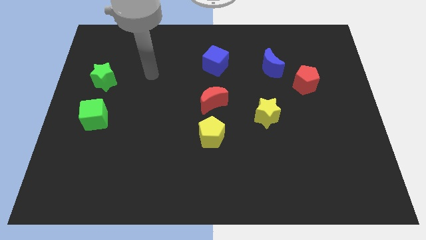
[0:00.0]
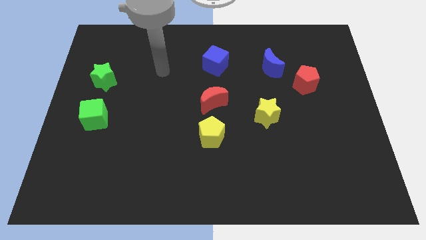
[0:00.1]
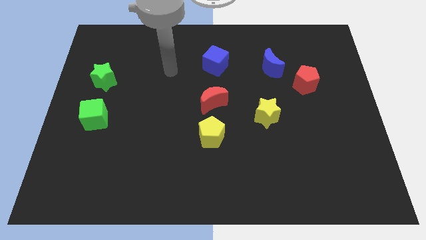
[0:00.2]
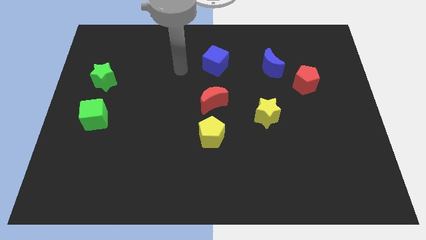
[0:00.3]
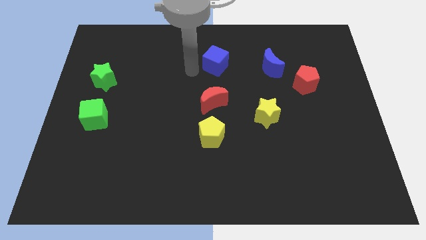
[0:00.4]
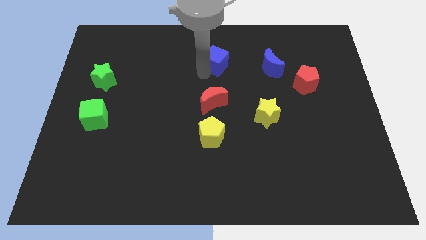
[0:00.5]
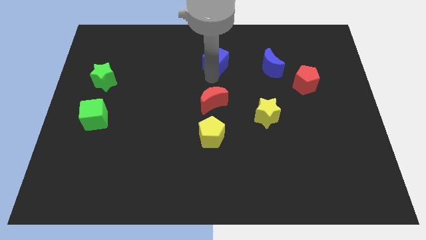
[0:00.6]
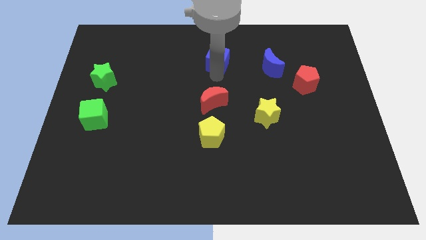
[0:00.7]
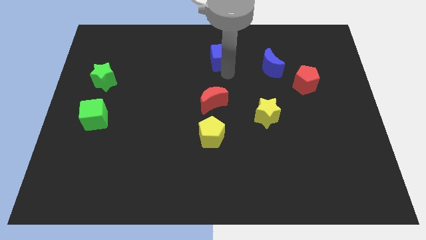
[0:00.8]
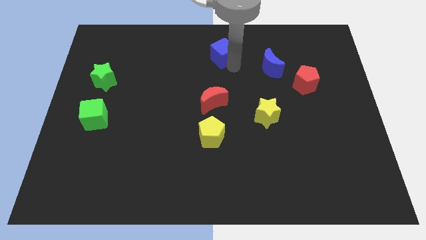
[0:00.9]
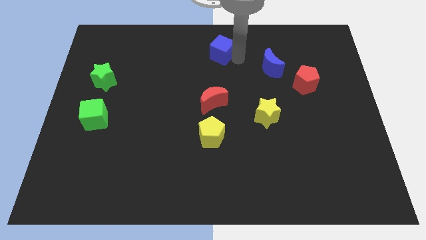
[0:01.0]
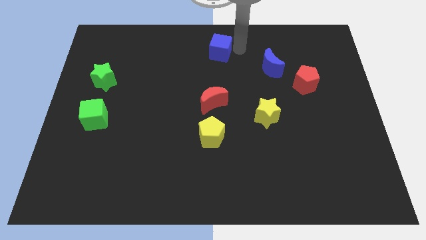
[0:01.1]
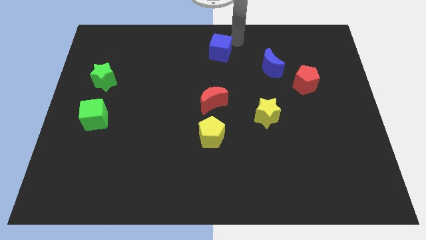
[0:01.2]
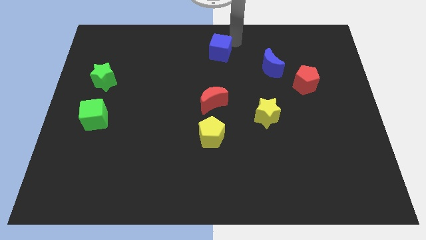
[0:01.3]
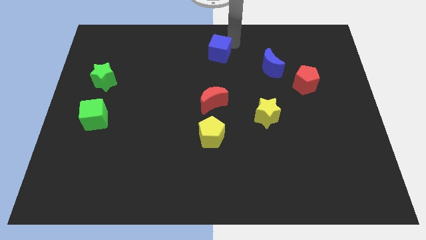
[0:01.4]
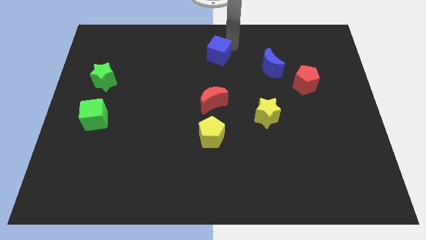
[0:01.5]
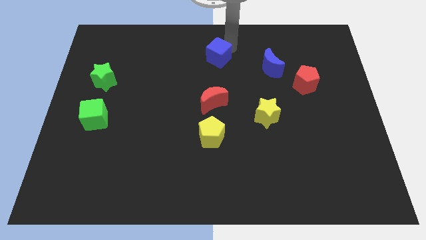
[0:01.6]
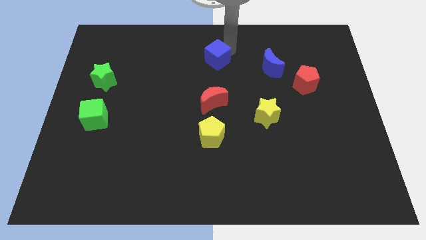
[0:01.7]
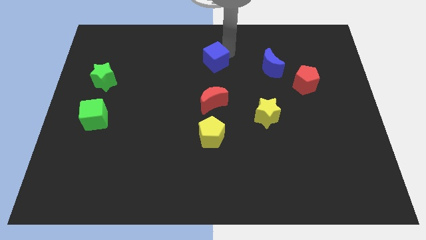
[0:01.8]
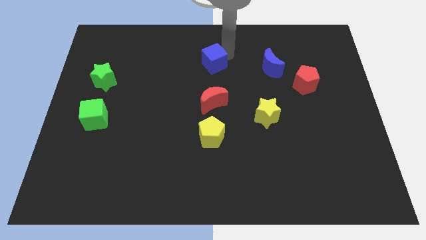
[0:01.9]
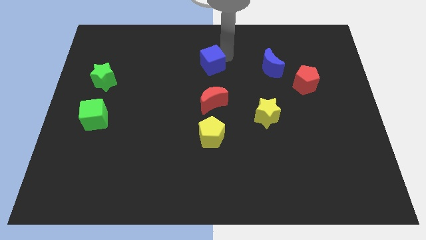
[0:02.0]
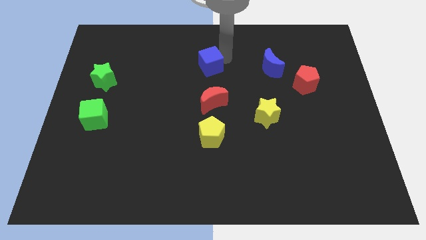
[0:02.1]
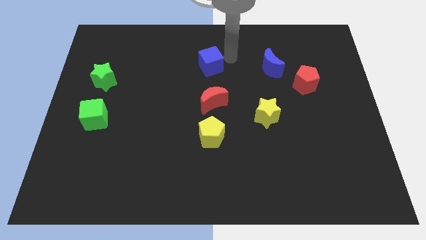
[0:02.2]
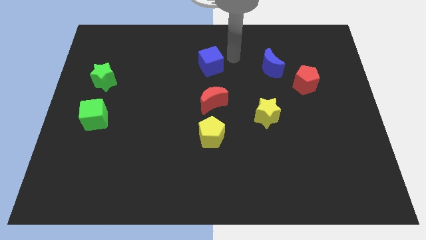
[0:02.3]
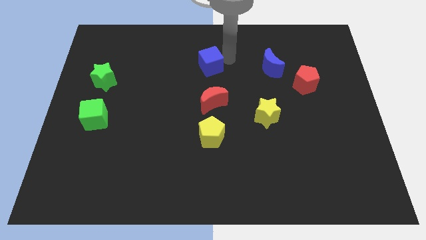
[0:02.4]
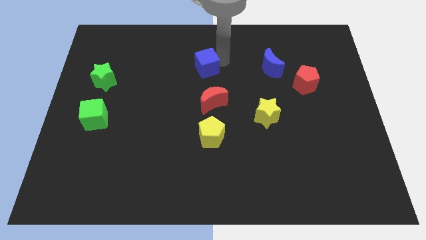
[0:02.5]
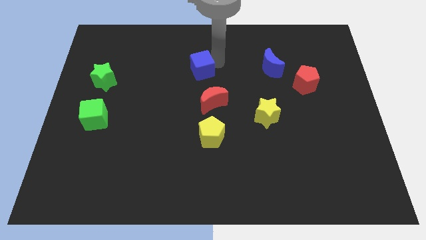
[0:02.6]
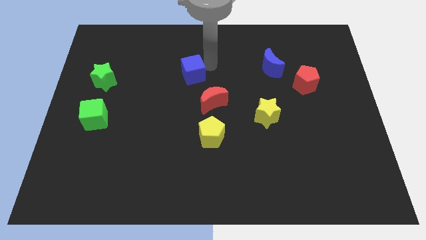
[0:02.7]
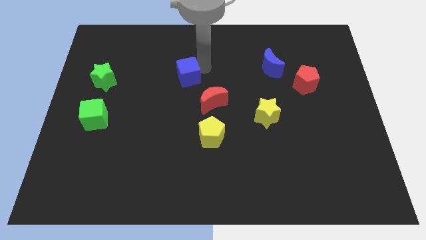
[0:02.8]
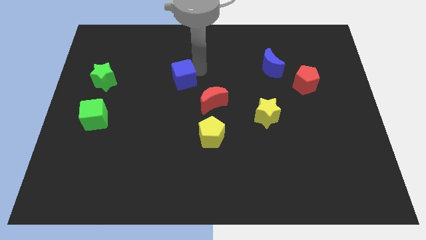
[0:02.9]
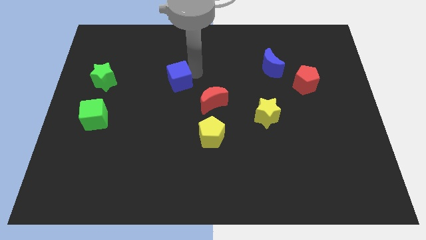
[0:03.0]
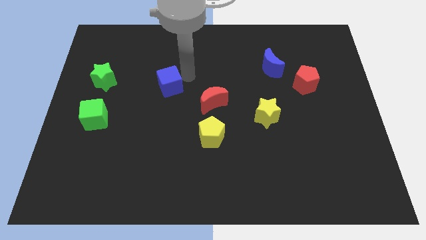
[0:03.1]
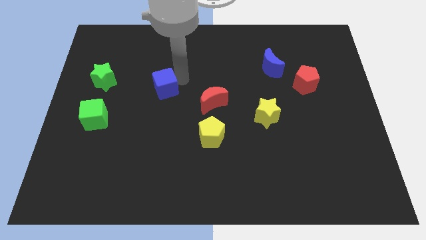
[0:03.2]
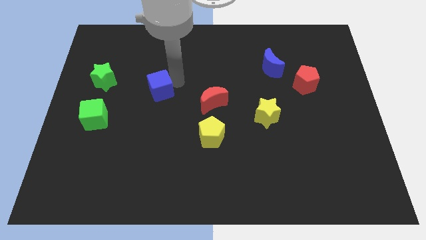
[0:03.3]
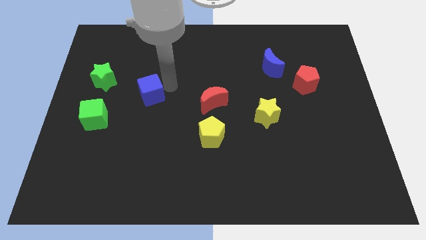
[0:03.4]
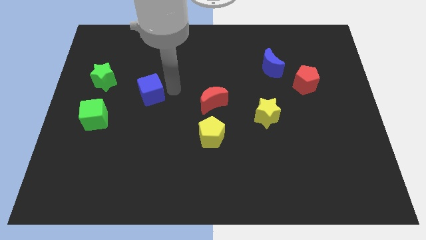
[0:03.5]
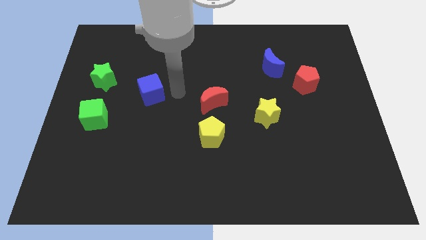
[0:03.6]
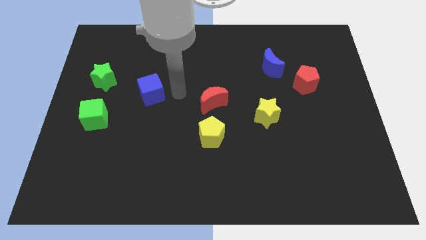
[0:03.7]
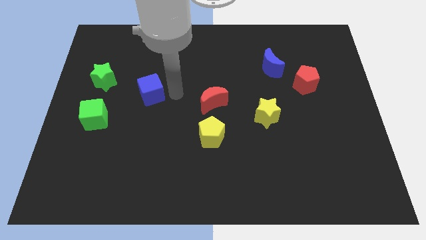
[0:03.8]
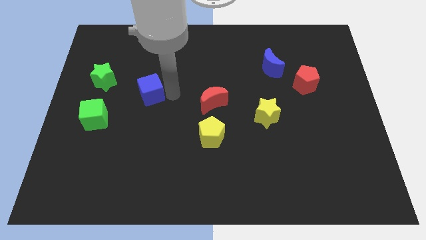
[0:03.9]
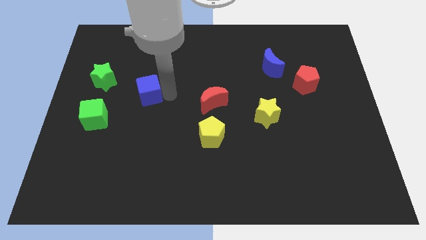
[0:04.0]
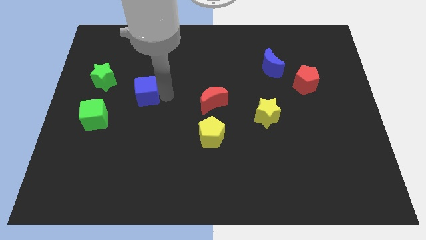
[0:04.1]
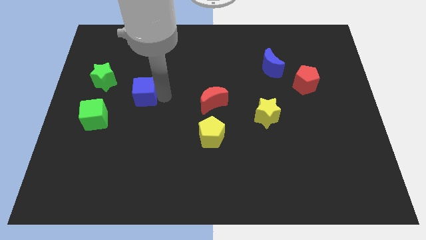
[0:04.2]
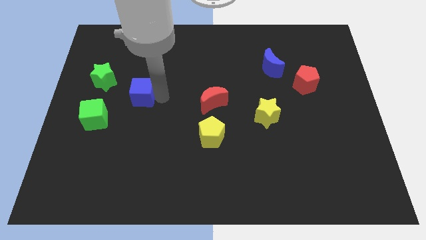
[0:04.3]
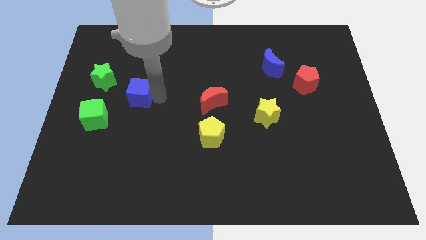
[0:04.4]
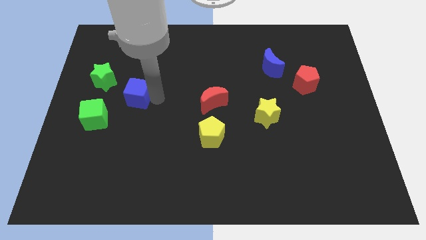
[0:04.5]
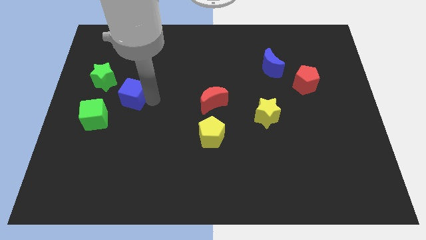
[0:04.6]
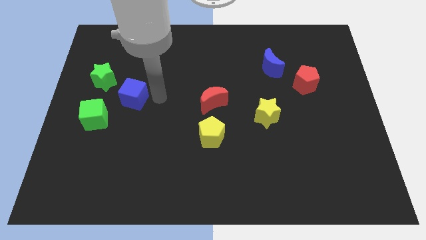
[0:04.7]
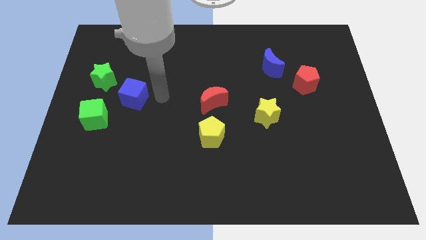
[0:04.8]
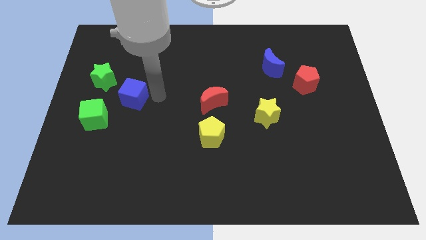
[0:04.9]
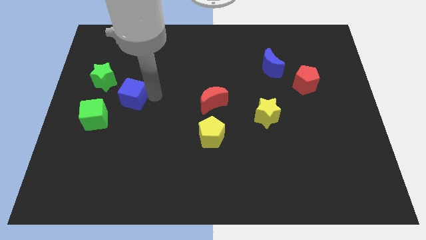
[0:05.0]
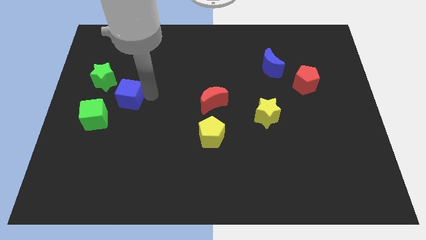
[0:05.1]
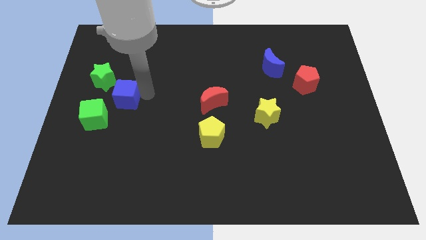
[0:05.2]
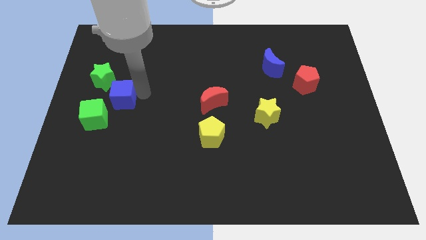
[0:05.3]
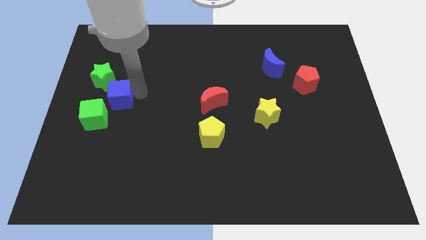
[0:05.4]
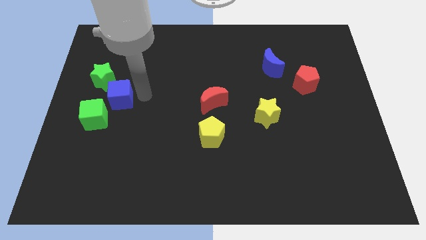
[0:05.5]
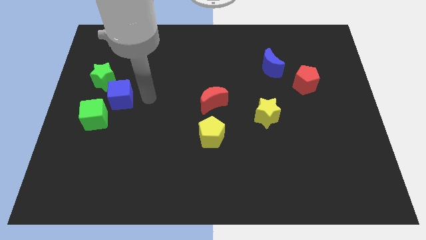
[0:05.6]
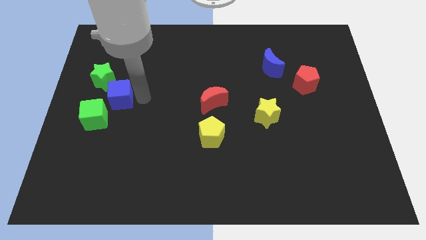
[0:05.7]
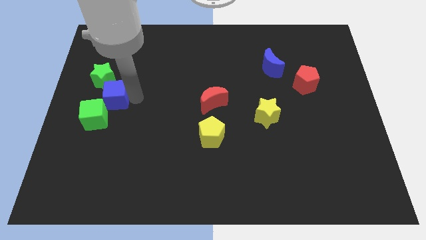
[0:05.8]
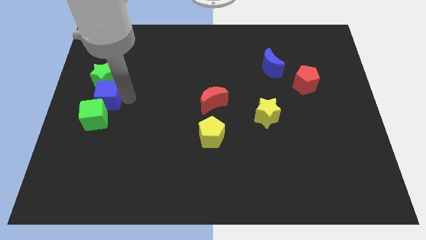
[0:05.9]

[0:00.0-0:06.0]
slide the blue cube to the left side

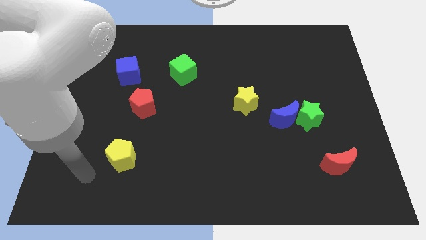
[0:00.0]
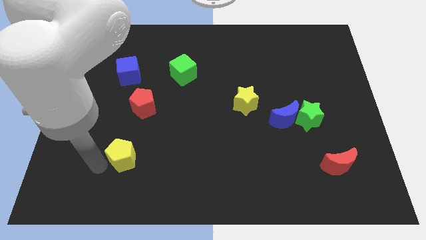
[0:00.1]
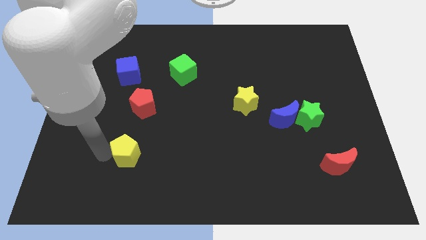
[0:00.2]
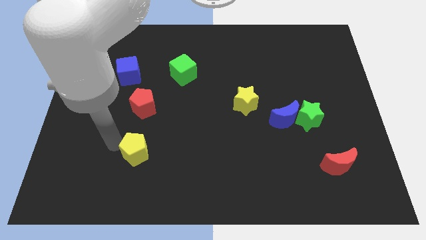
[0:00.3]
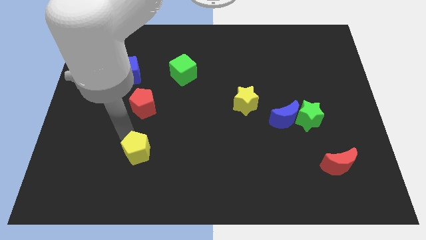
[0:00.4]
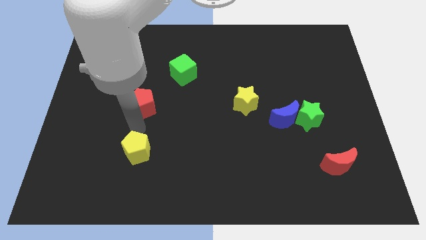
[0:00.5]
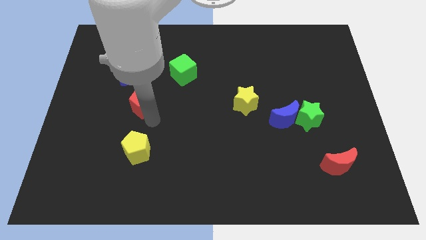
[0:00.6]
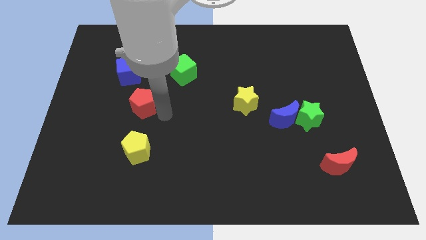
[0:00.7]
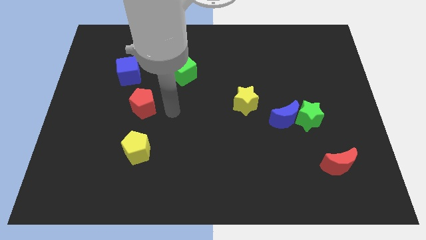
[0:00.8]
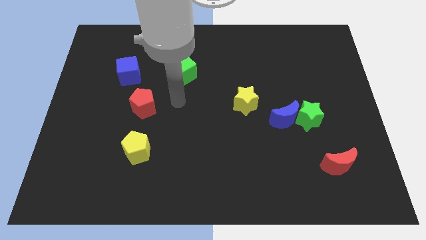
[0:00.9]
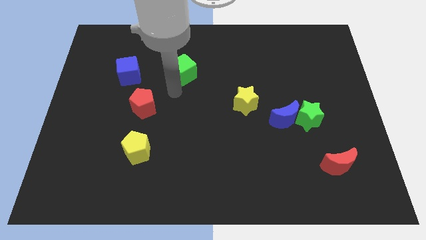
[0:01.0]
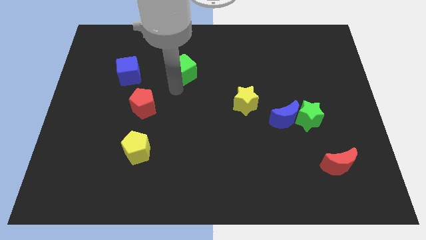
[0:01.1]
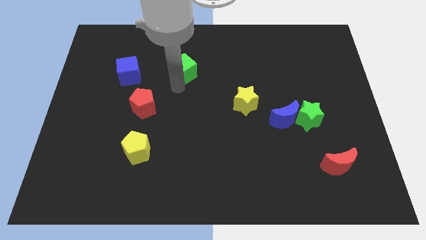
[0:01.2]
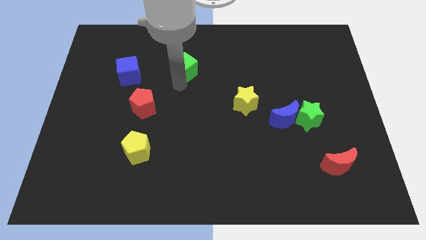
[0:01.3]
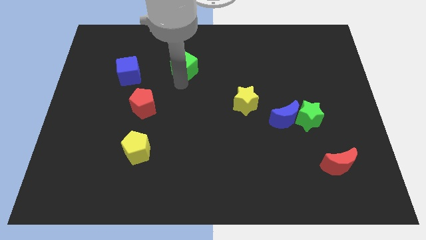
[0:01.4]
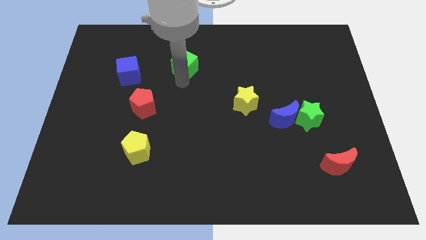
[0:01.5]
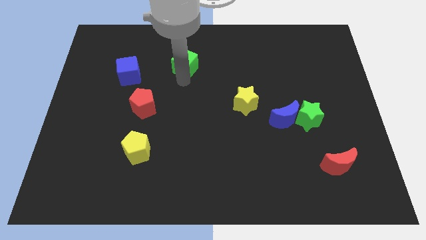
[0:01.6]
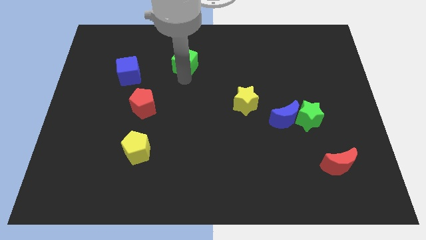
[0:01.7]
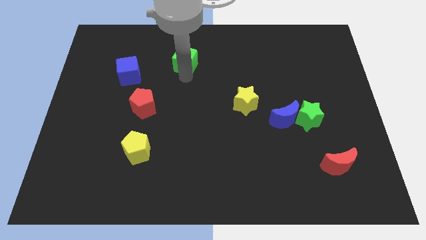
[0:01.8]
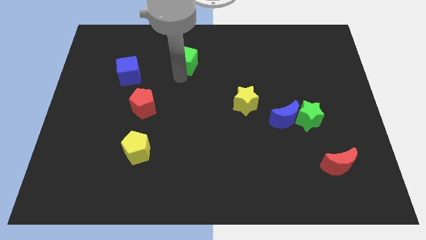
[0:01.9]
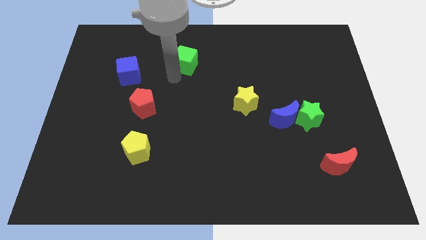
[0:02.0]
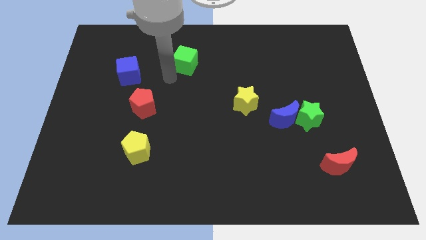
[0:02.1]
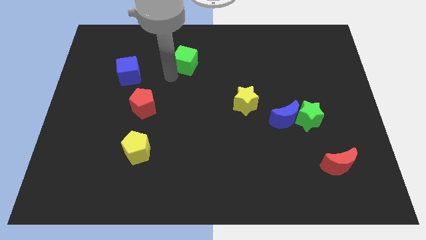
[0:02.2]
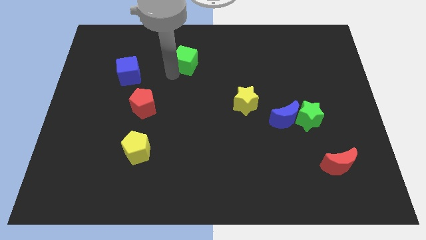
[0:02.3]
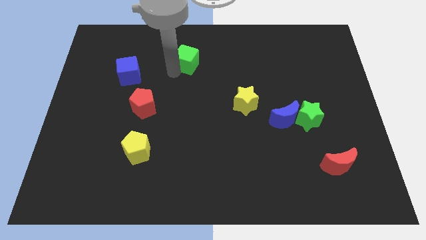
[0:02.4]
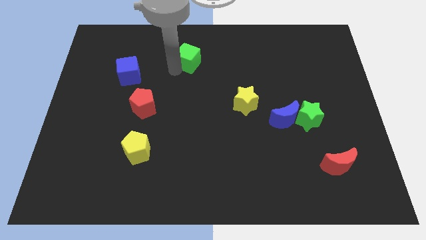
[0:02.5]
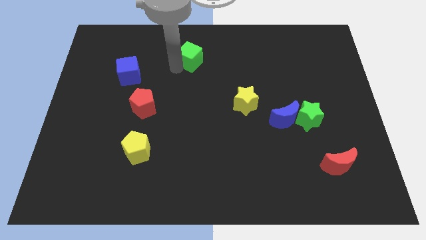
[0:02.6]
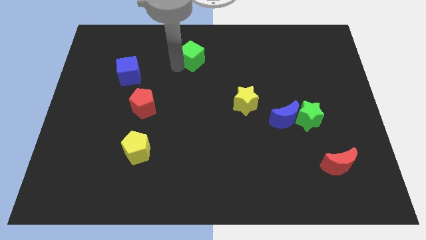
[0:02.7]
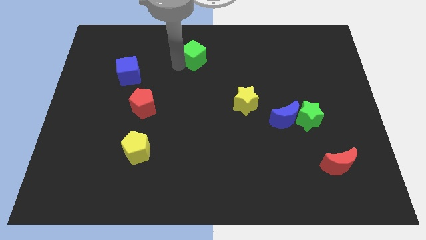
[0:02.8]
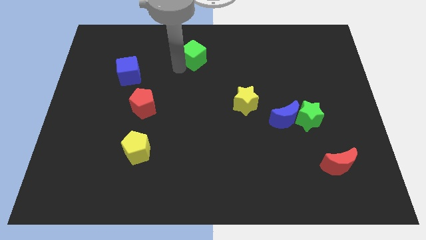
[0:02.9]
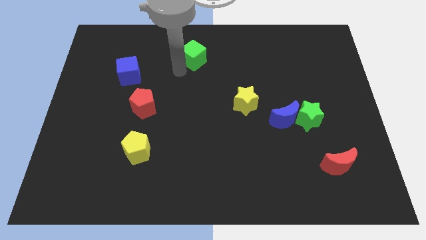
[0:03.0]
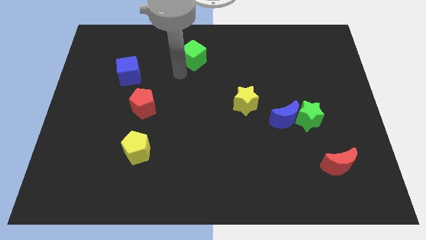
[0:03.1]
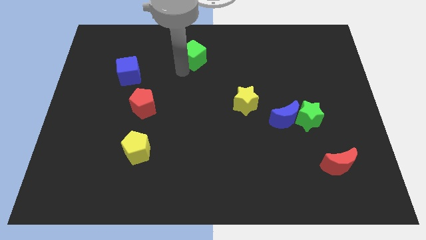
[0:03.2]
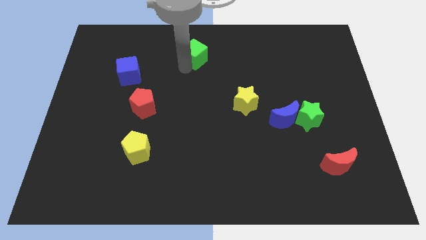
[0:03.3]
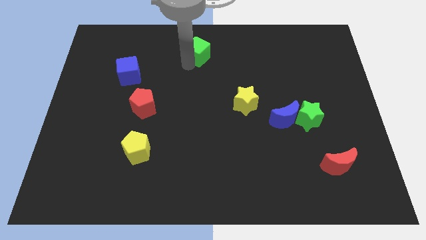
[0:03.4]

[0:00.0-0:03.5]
slide the green cube to the top side
